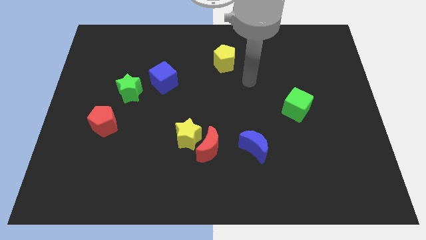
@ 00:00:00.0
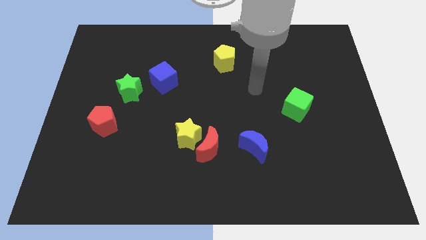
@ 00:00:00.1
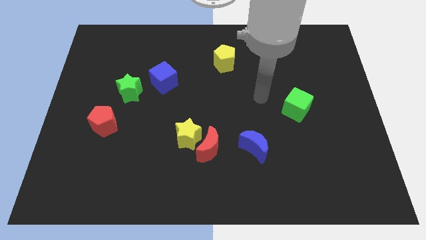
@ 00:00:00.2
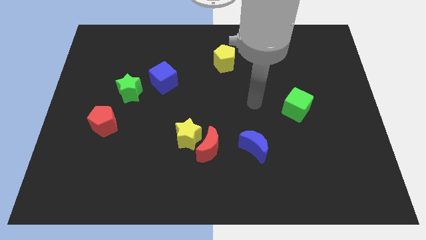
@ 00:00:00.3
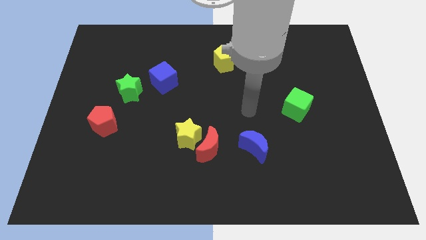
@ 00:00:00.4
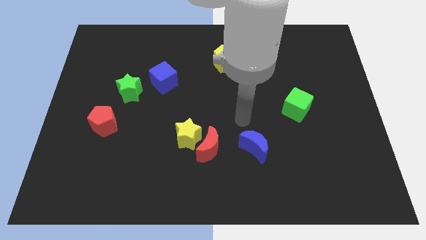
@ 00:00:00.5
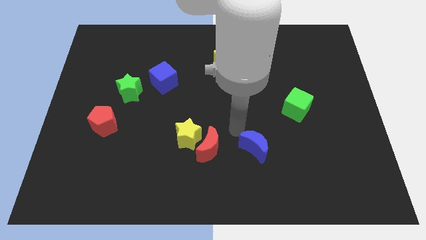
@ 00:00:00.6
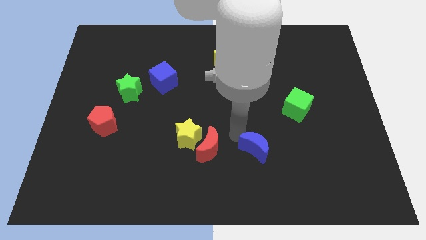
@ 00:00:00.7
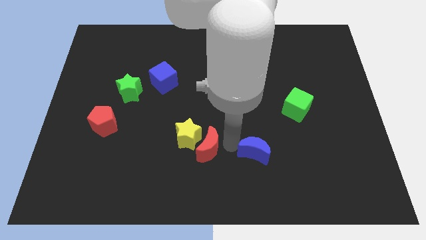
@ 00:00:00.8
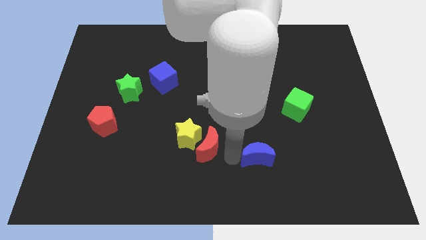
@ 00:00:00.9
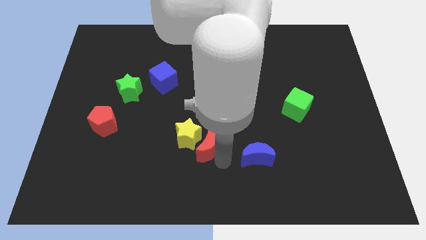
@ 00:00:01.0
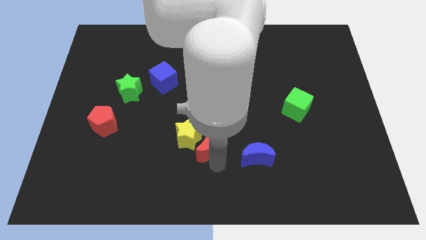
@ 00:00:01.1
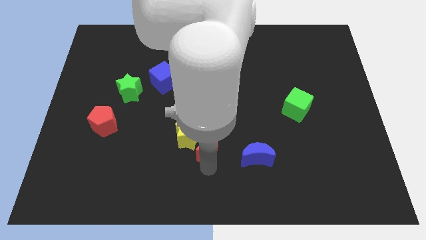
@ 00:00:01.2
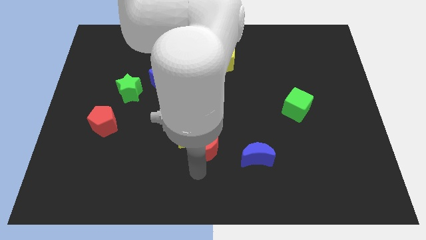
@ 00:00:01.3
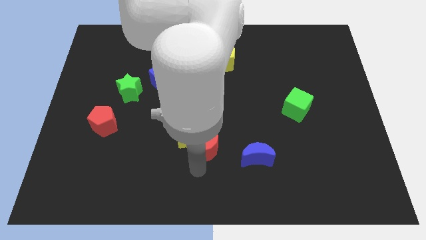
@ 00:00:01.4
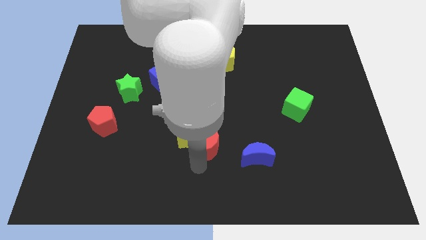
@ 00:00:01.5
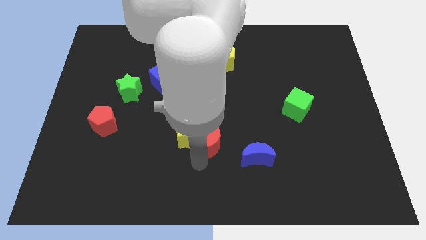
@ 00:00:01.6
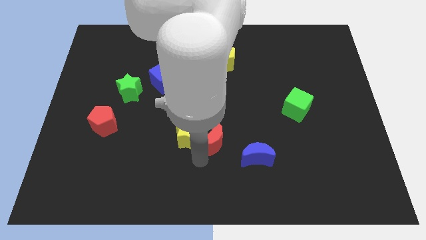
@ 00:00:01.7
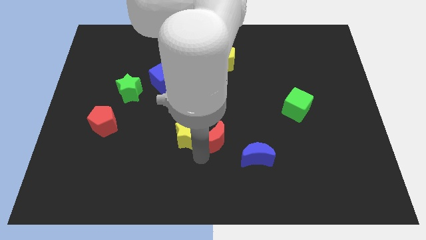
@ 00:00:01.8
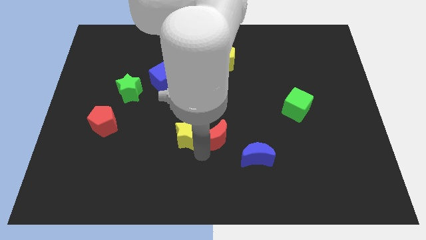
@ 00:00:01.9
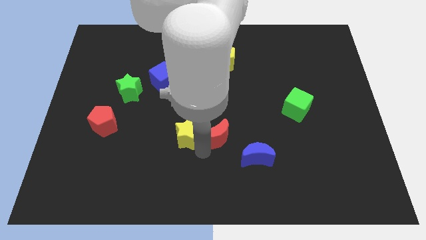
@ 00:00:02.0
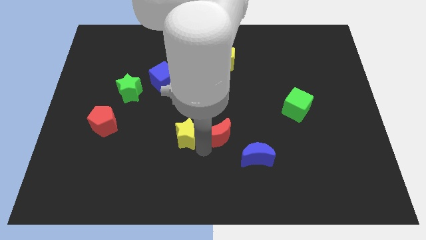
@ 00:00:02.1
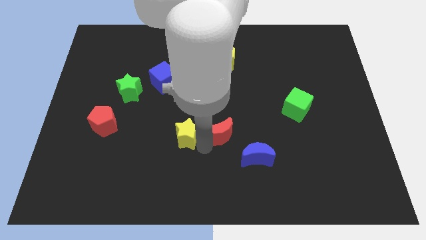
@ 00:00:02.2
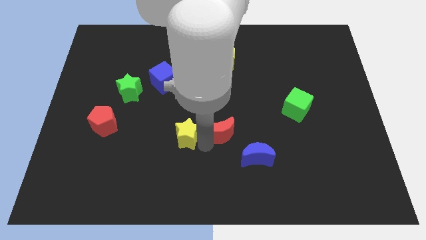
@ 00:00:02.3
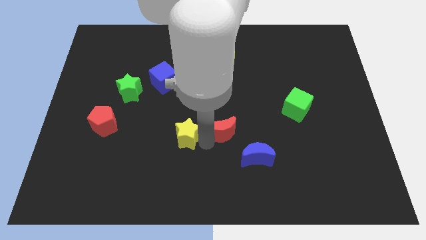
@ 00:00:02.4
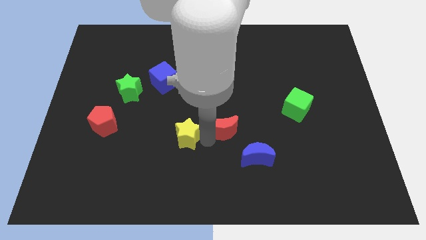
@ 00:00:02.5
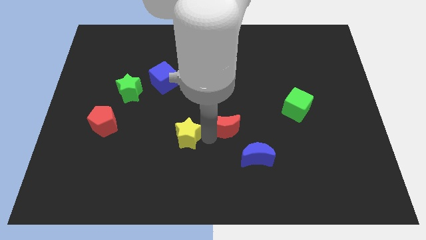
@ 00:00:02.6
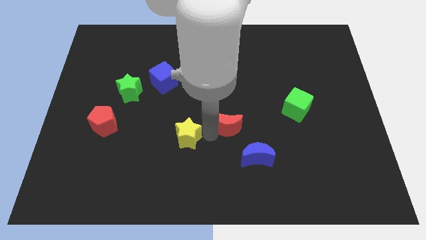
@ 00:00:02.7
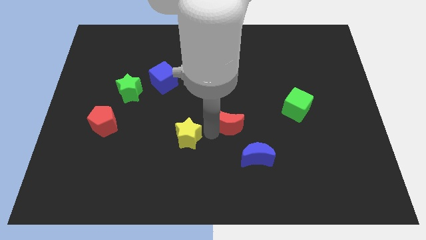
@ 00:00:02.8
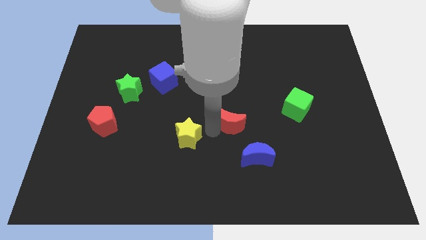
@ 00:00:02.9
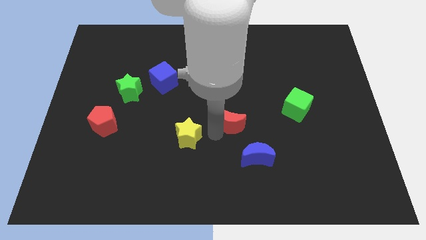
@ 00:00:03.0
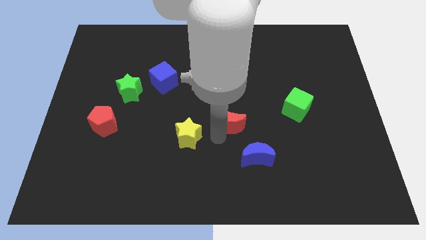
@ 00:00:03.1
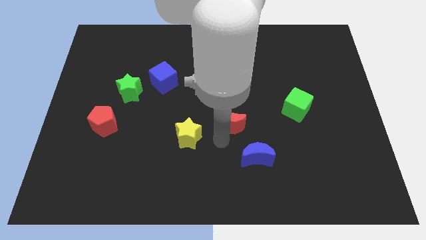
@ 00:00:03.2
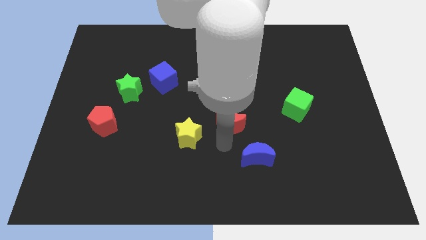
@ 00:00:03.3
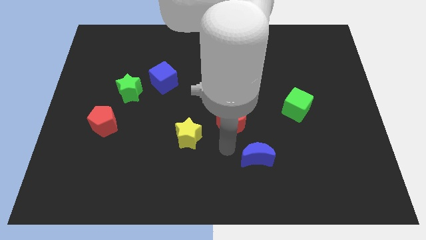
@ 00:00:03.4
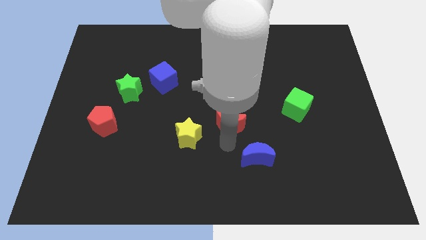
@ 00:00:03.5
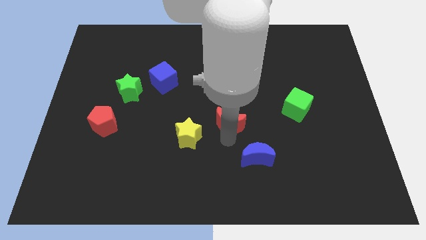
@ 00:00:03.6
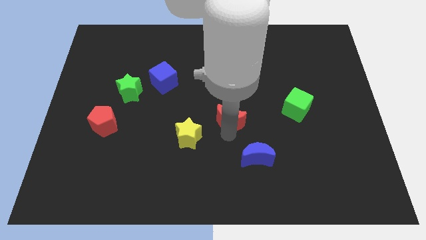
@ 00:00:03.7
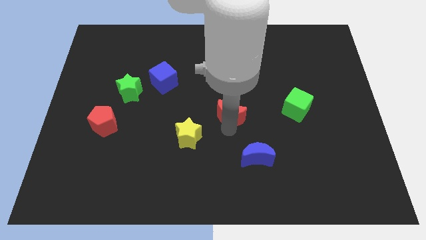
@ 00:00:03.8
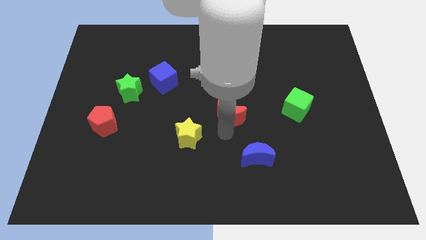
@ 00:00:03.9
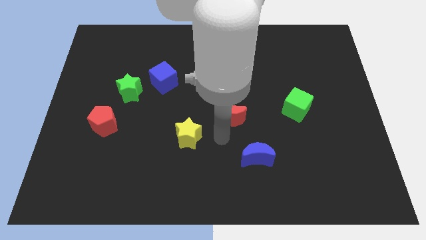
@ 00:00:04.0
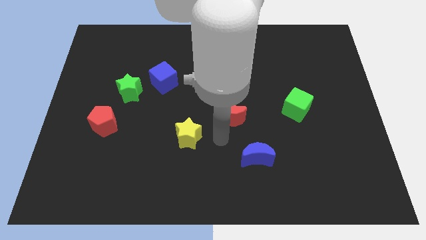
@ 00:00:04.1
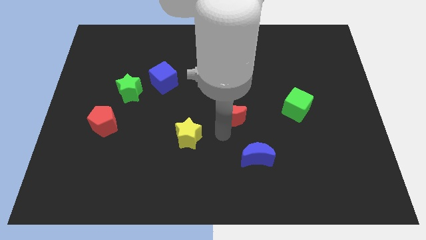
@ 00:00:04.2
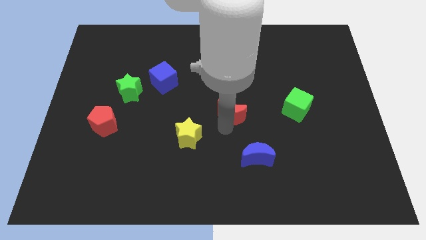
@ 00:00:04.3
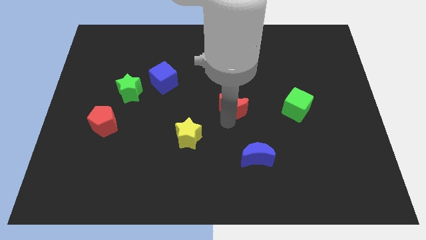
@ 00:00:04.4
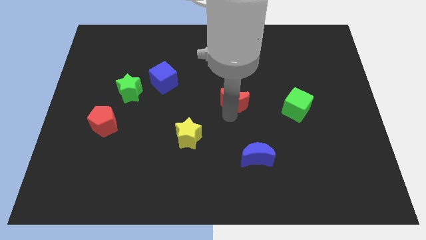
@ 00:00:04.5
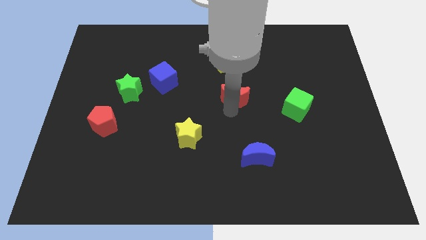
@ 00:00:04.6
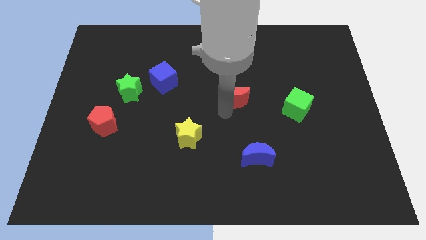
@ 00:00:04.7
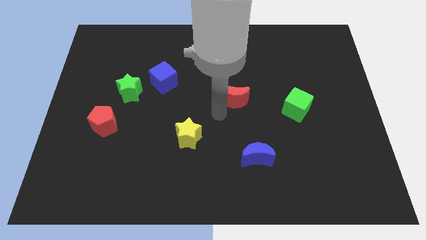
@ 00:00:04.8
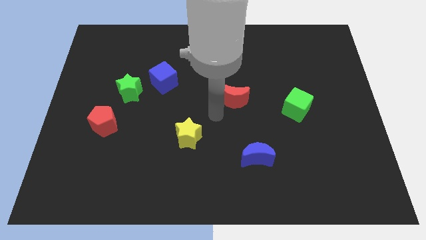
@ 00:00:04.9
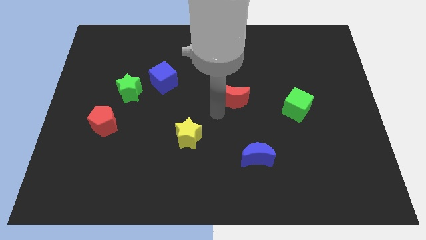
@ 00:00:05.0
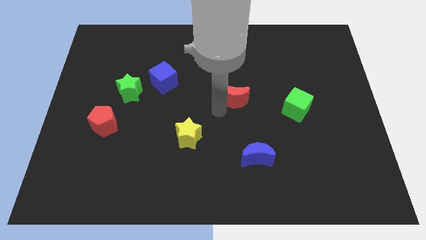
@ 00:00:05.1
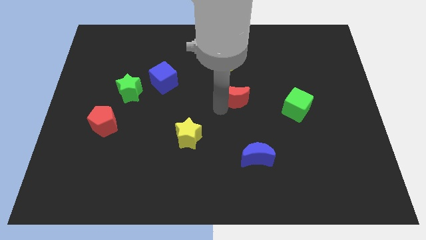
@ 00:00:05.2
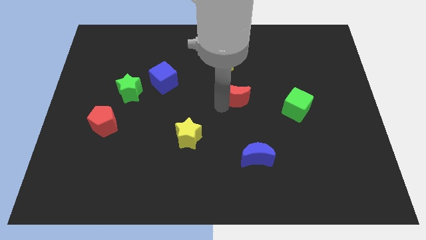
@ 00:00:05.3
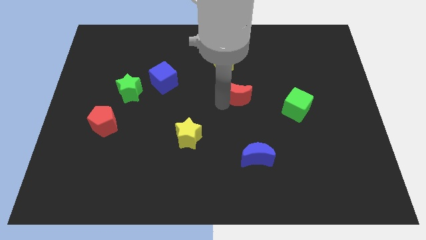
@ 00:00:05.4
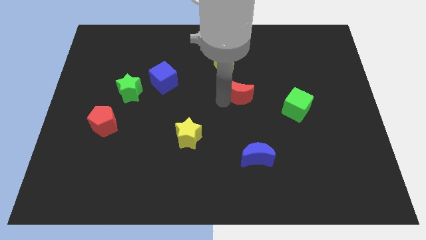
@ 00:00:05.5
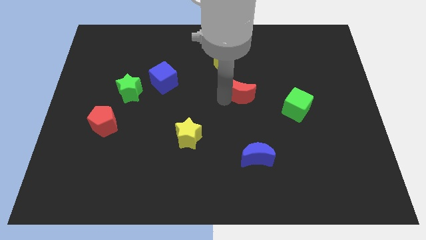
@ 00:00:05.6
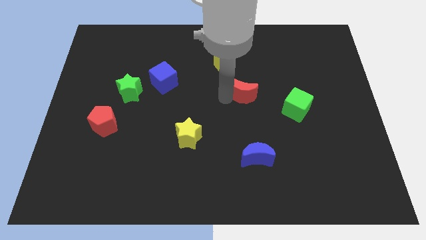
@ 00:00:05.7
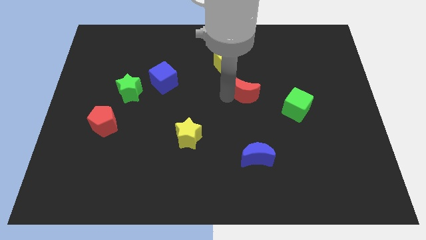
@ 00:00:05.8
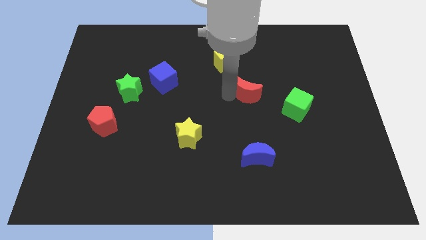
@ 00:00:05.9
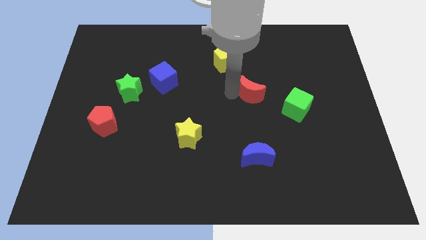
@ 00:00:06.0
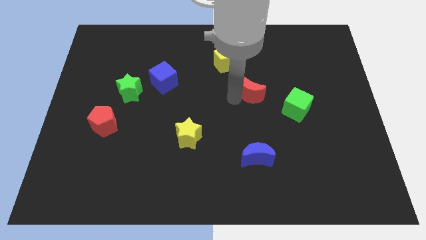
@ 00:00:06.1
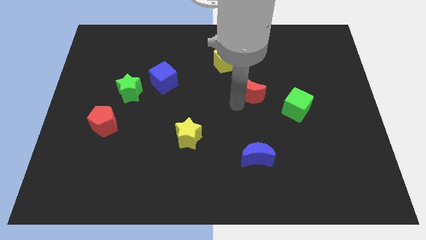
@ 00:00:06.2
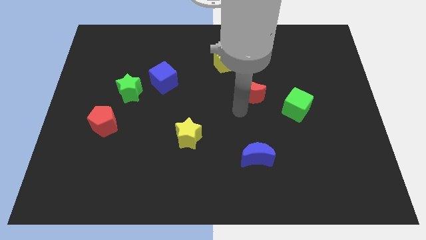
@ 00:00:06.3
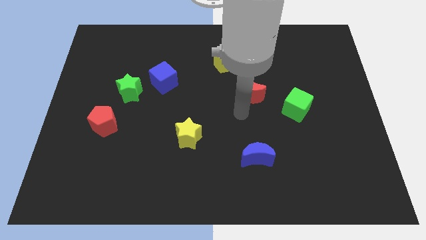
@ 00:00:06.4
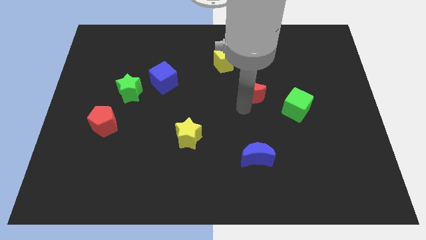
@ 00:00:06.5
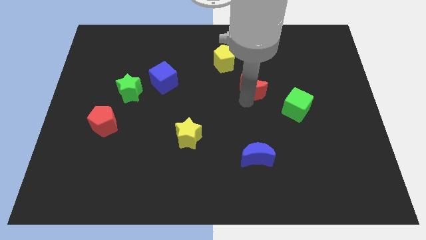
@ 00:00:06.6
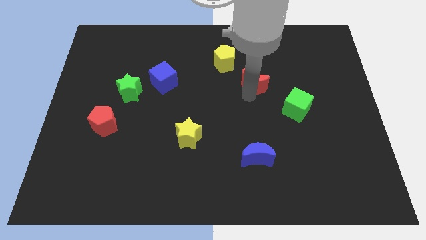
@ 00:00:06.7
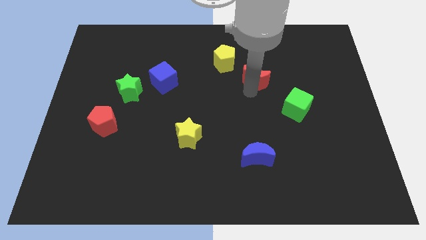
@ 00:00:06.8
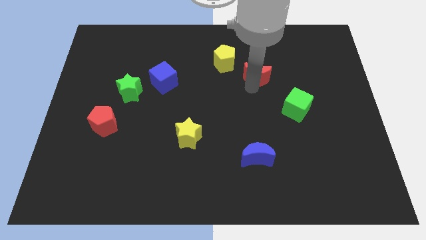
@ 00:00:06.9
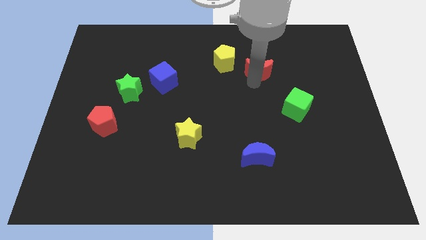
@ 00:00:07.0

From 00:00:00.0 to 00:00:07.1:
put the red moon to the right of the yellow pentagon
